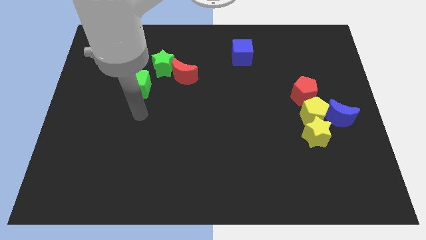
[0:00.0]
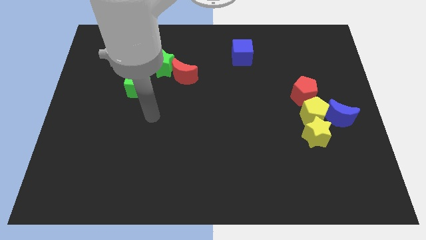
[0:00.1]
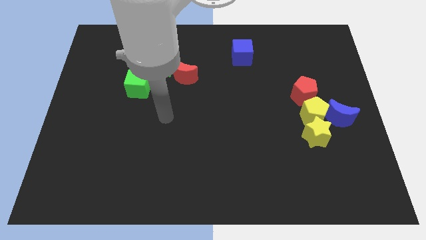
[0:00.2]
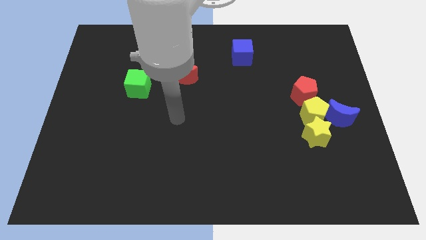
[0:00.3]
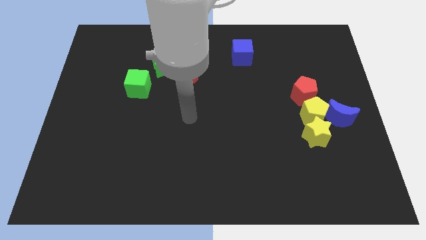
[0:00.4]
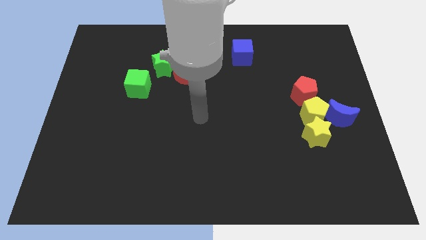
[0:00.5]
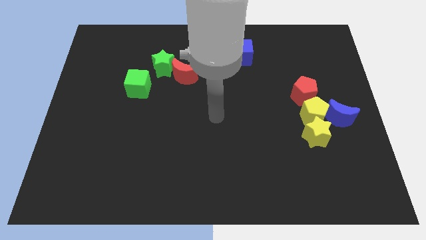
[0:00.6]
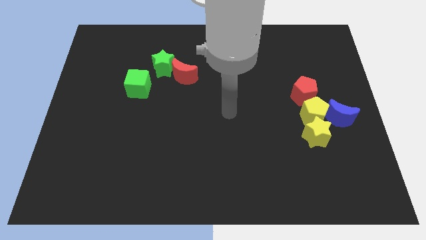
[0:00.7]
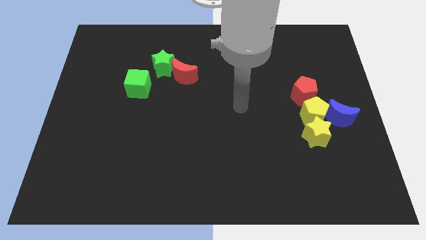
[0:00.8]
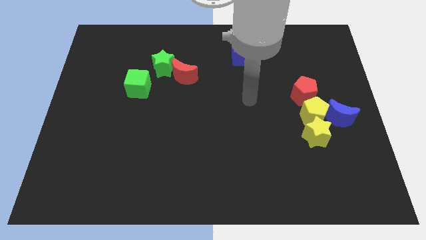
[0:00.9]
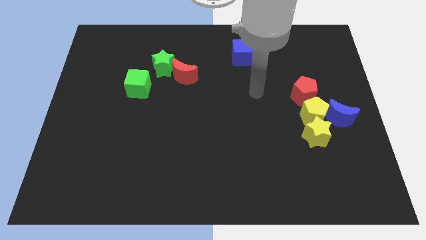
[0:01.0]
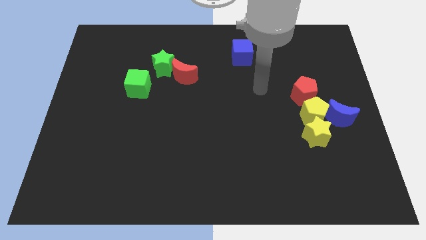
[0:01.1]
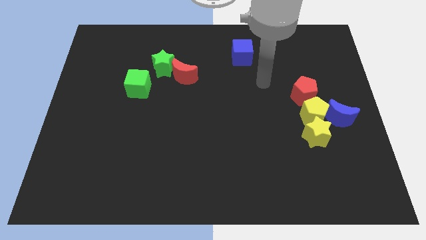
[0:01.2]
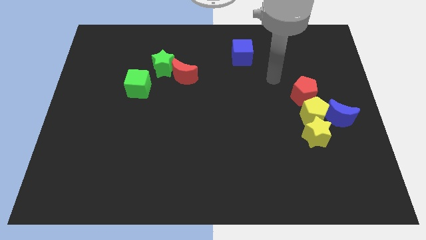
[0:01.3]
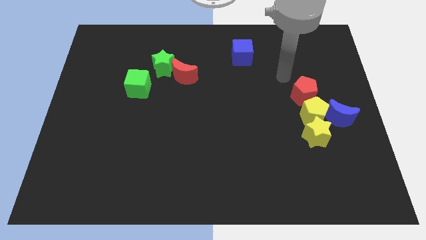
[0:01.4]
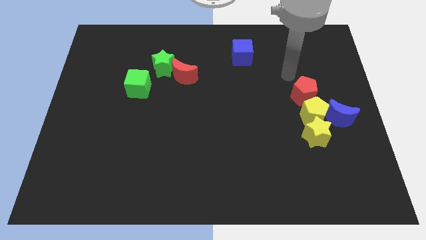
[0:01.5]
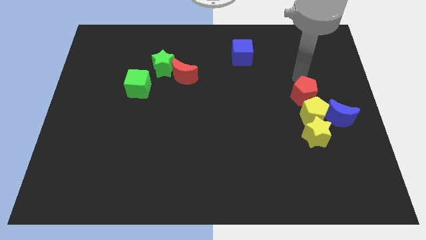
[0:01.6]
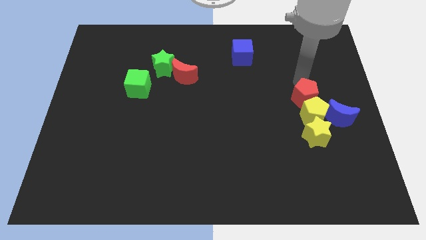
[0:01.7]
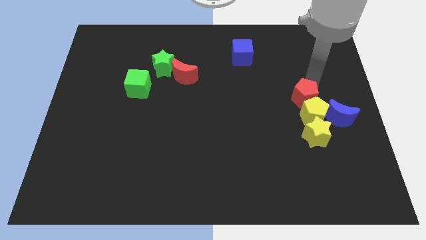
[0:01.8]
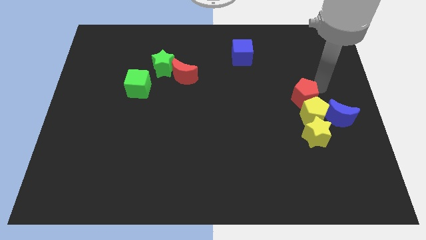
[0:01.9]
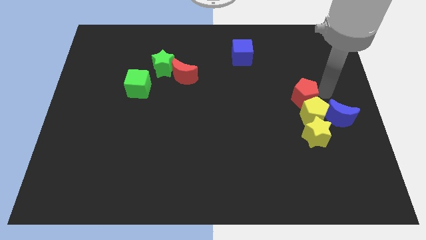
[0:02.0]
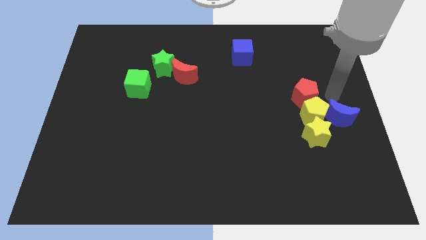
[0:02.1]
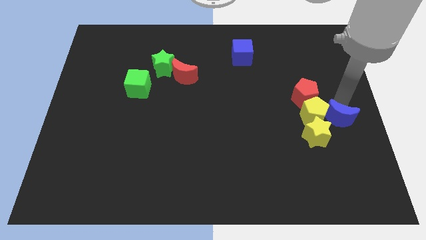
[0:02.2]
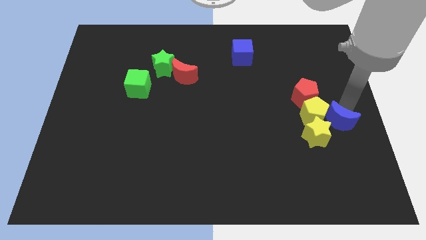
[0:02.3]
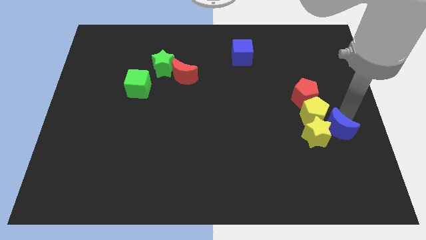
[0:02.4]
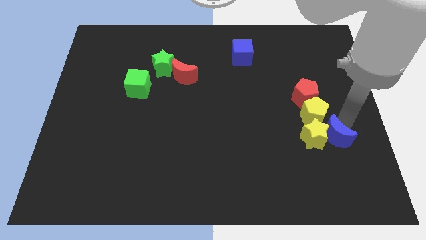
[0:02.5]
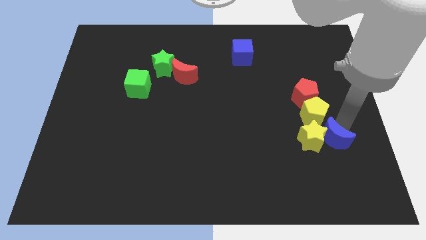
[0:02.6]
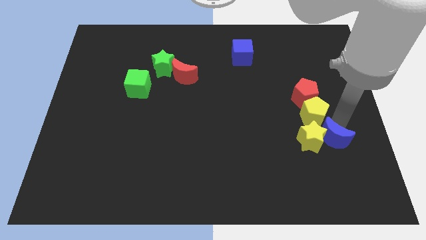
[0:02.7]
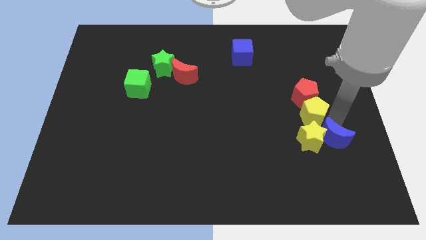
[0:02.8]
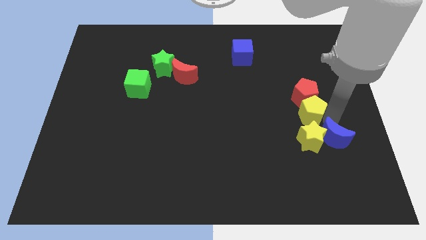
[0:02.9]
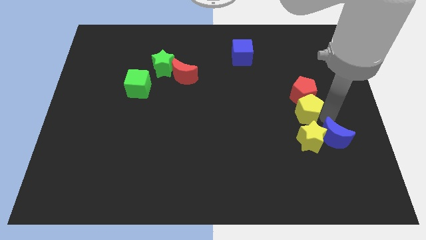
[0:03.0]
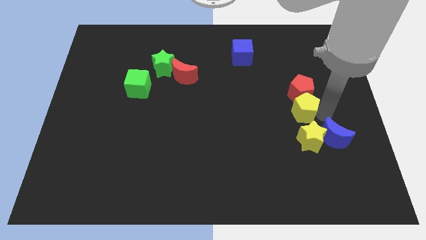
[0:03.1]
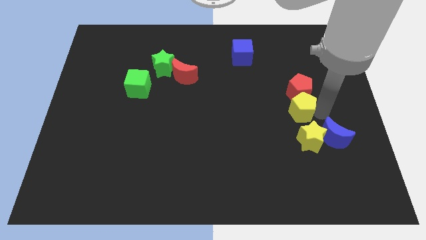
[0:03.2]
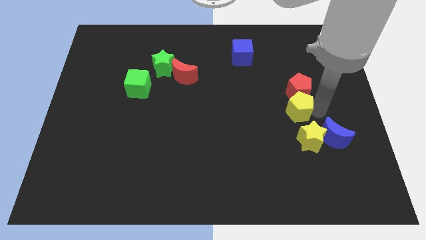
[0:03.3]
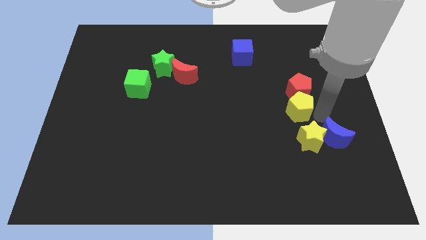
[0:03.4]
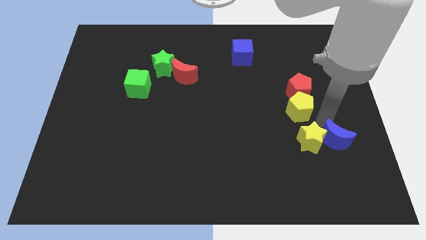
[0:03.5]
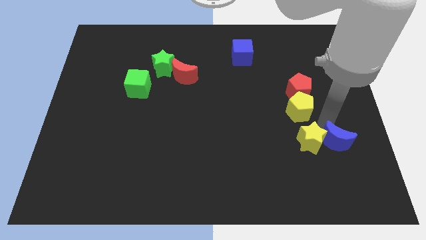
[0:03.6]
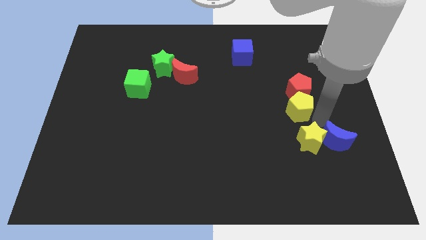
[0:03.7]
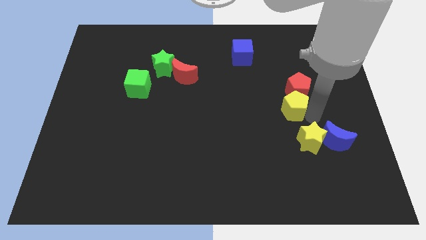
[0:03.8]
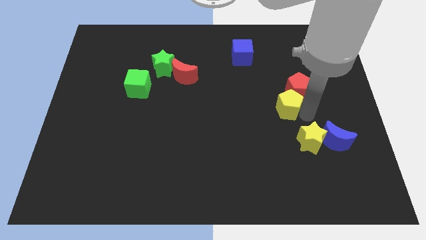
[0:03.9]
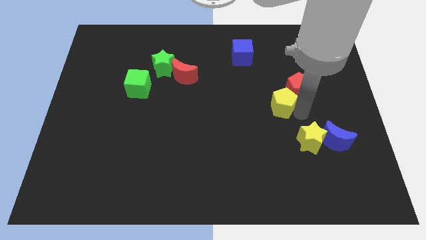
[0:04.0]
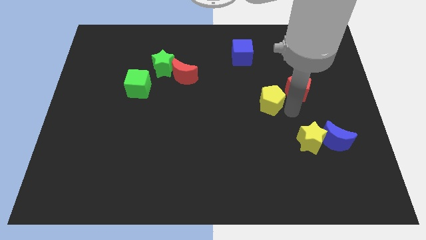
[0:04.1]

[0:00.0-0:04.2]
slightly push the yellow pentagon upwards and then left

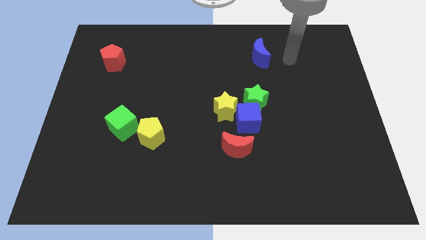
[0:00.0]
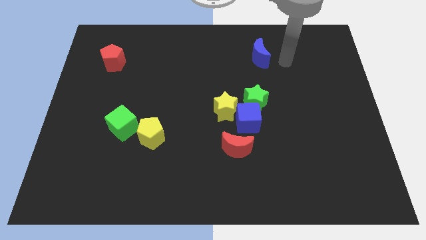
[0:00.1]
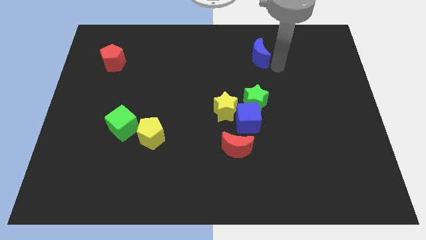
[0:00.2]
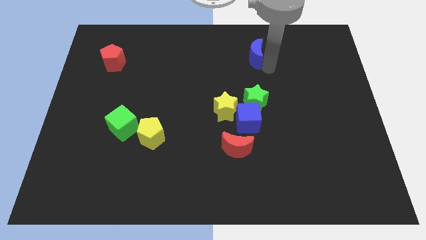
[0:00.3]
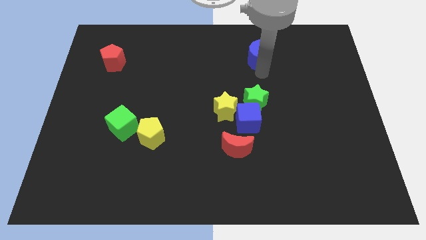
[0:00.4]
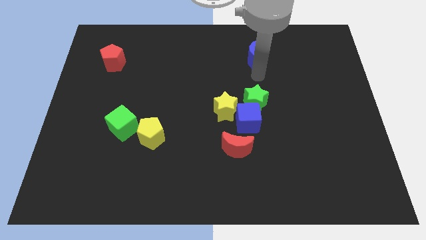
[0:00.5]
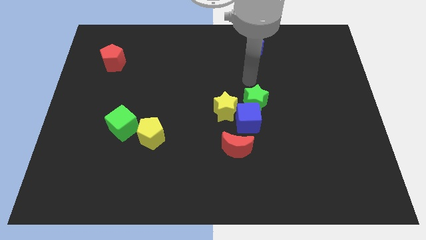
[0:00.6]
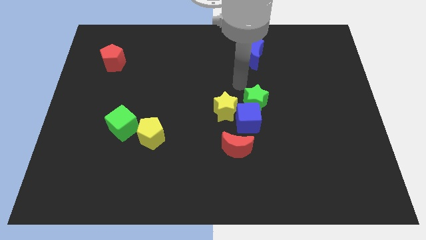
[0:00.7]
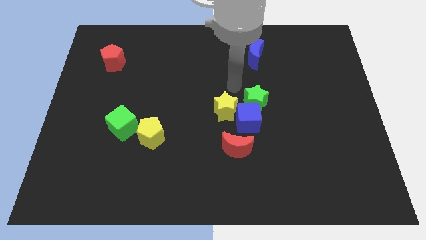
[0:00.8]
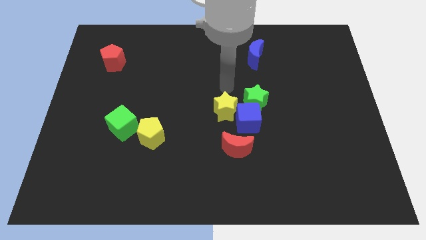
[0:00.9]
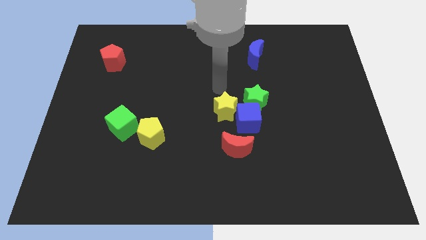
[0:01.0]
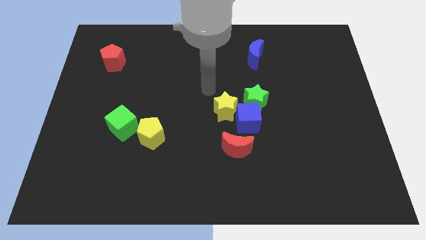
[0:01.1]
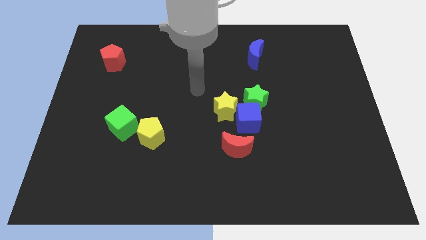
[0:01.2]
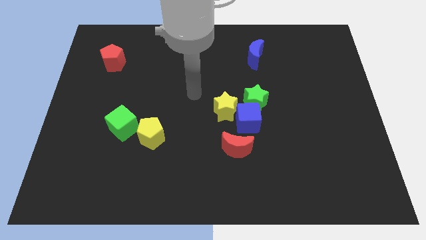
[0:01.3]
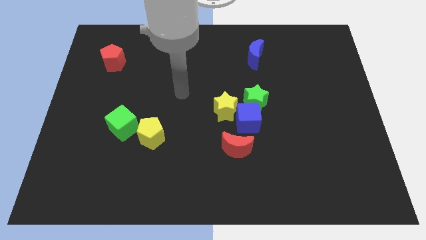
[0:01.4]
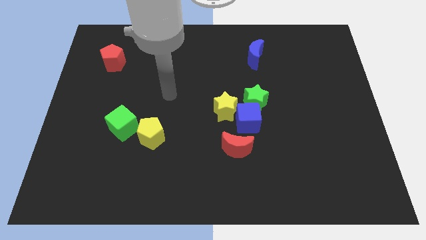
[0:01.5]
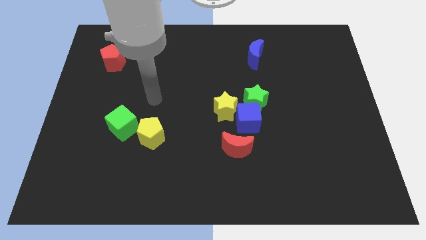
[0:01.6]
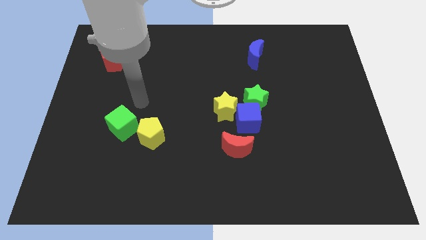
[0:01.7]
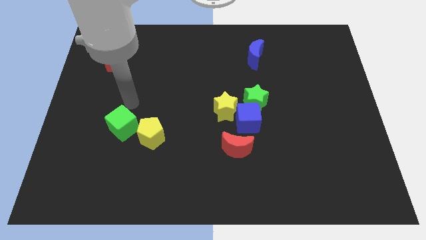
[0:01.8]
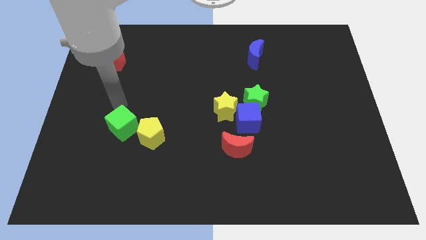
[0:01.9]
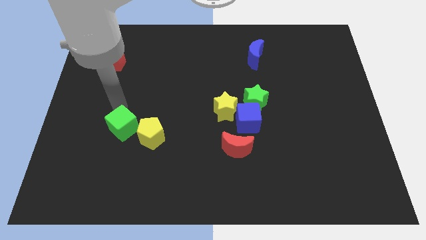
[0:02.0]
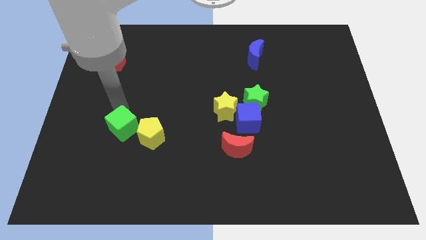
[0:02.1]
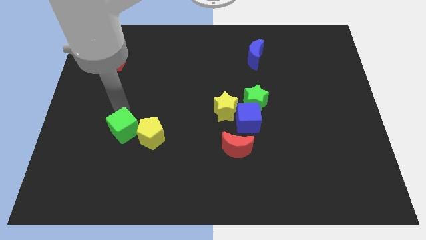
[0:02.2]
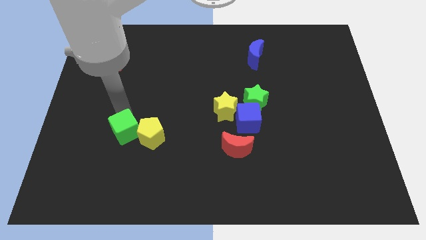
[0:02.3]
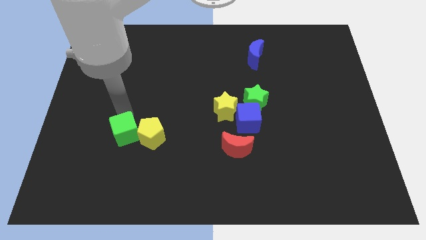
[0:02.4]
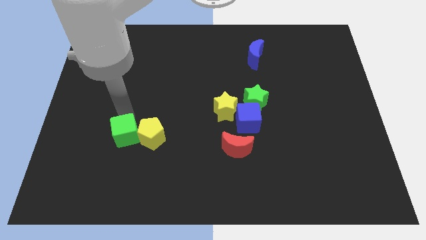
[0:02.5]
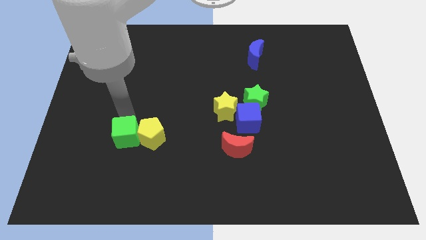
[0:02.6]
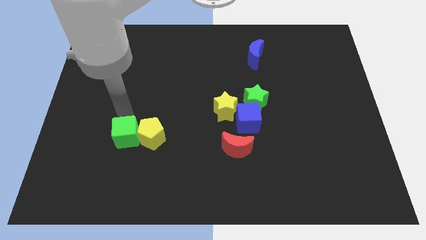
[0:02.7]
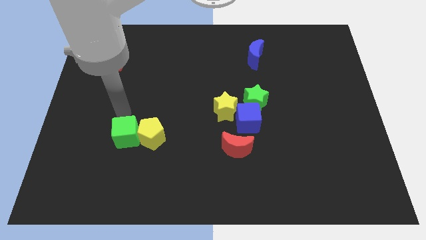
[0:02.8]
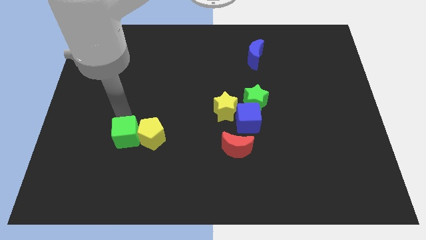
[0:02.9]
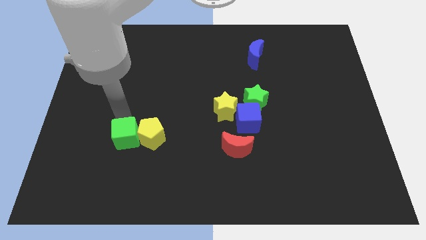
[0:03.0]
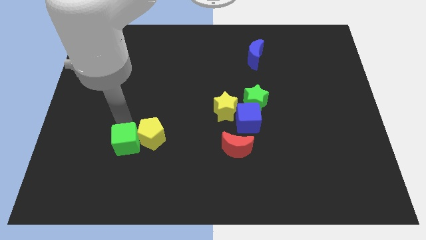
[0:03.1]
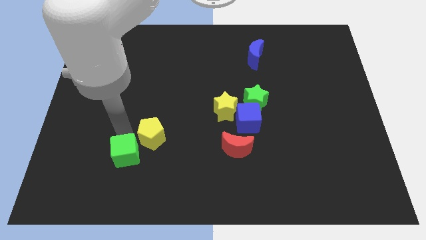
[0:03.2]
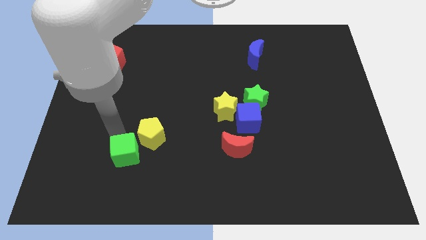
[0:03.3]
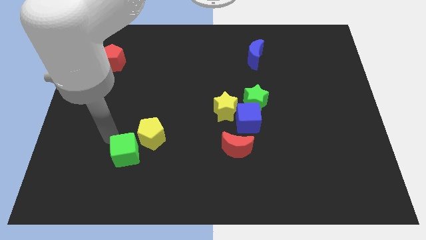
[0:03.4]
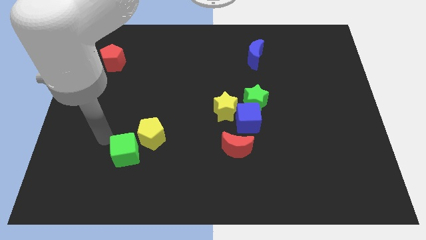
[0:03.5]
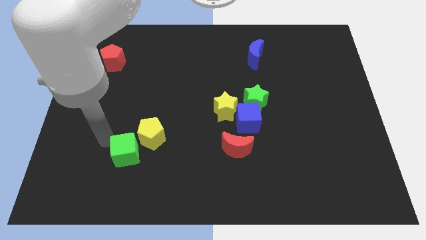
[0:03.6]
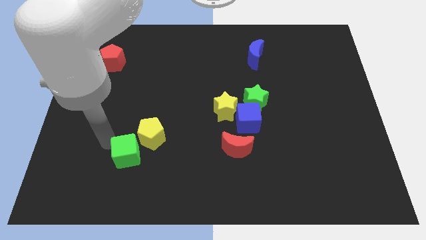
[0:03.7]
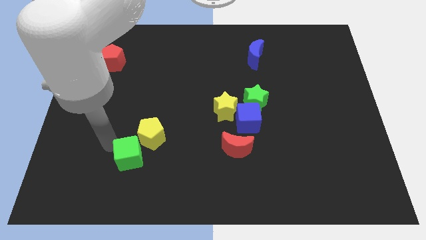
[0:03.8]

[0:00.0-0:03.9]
move the green cube a bit diagonally down and right
